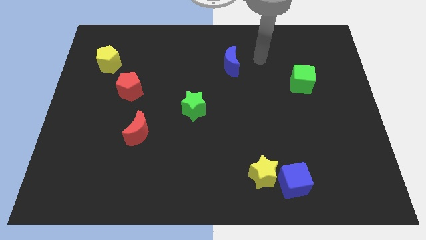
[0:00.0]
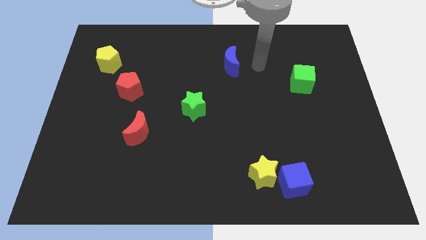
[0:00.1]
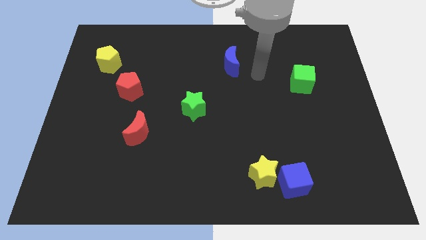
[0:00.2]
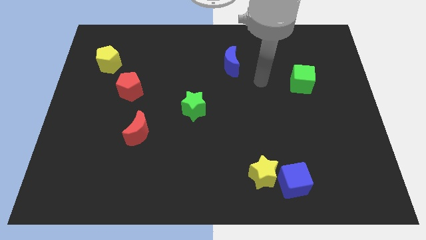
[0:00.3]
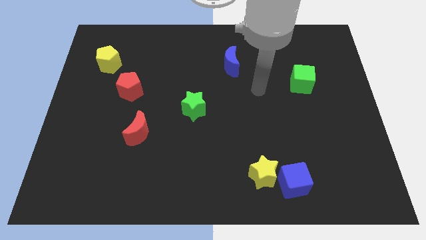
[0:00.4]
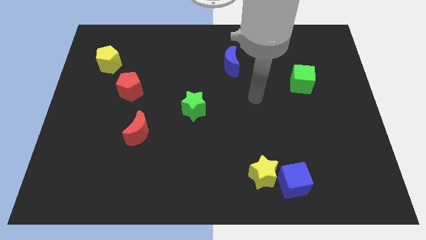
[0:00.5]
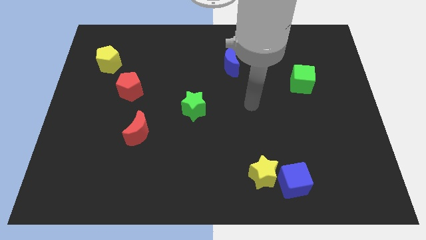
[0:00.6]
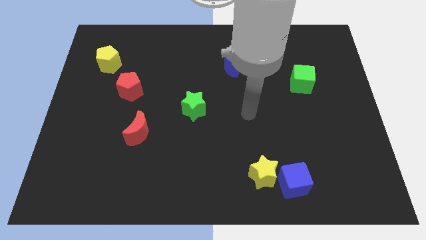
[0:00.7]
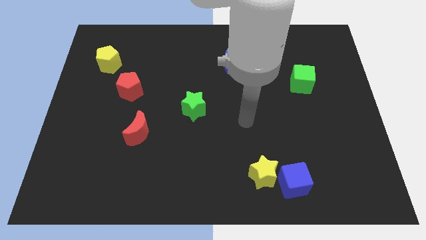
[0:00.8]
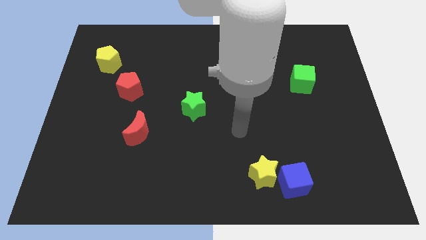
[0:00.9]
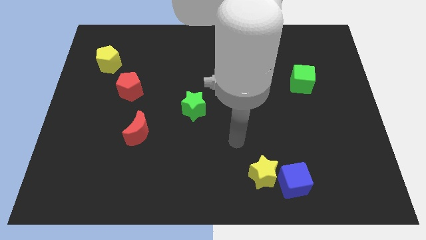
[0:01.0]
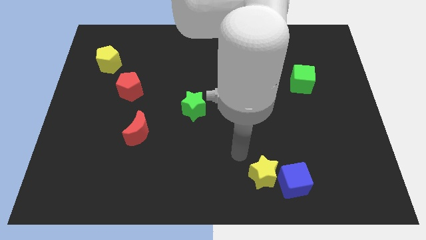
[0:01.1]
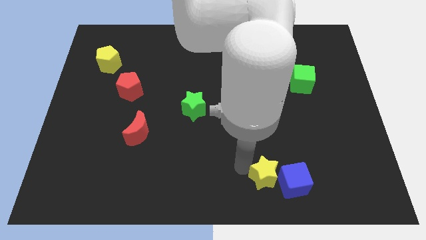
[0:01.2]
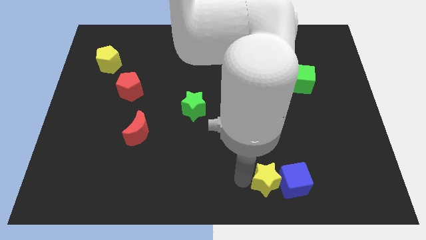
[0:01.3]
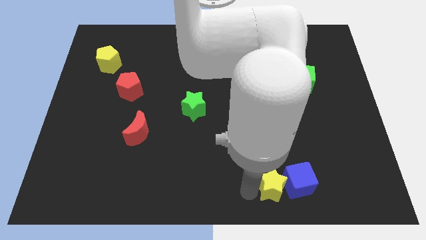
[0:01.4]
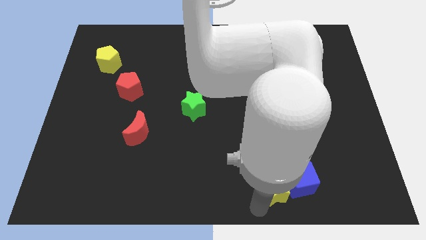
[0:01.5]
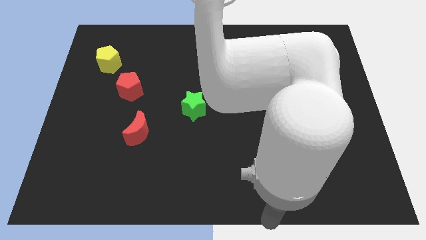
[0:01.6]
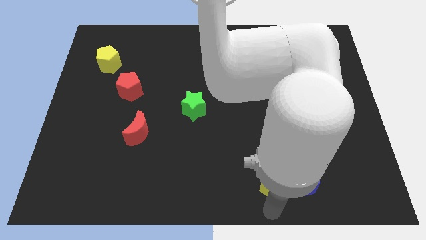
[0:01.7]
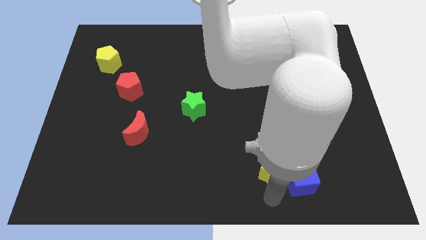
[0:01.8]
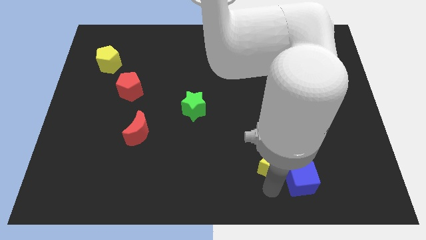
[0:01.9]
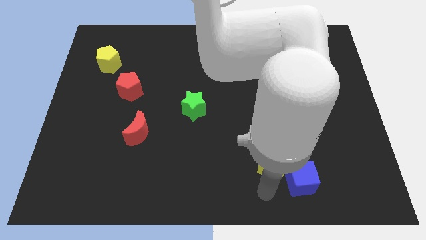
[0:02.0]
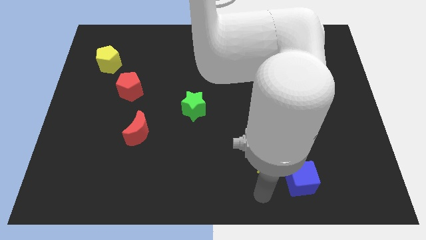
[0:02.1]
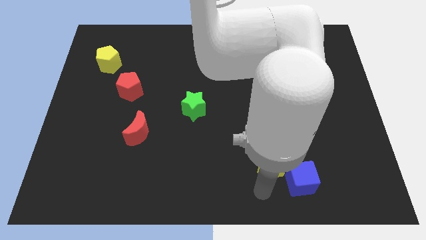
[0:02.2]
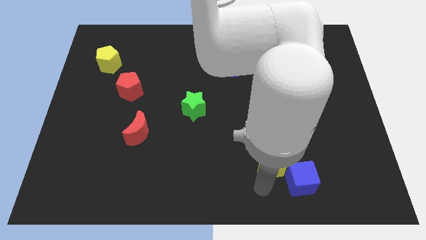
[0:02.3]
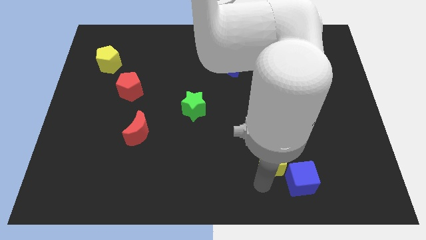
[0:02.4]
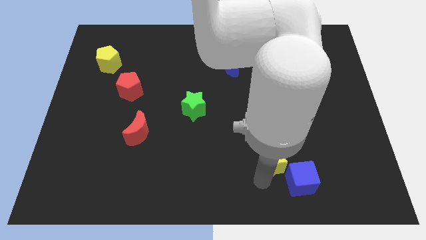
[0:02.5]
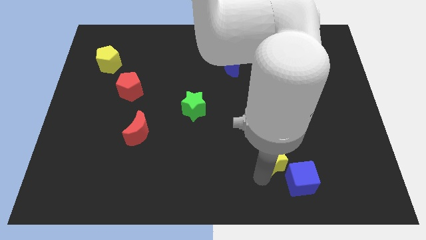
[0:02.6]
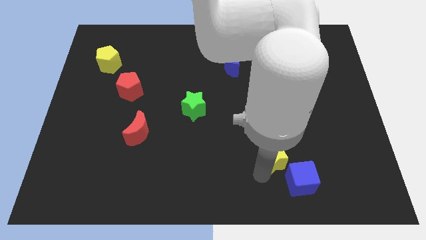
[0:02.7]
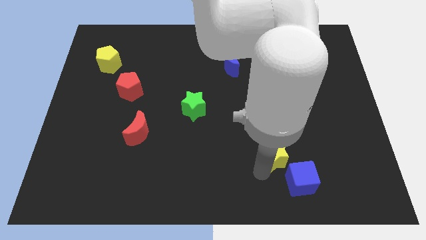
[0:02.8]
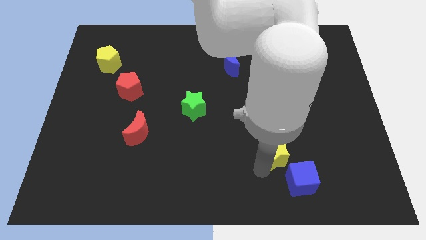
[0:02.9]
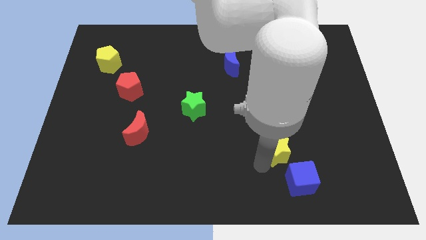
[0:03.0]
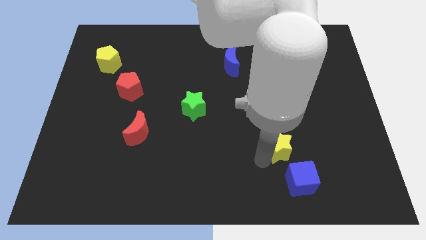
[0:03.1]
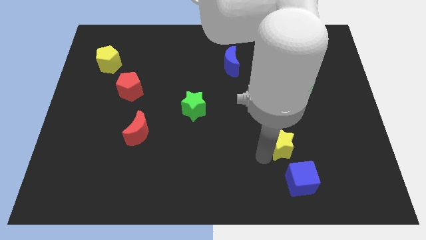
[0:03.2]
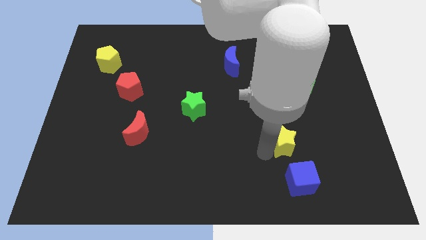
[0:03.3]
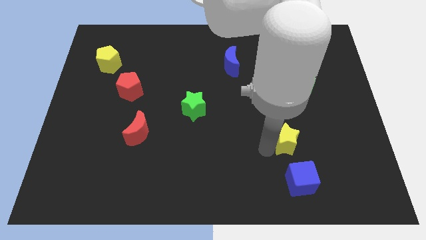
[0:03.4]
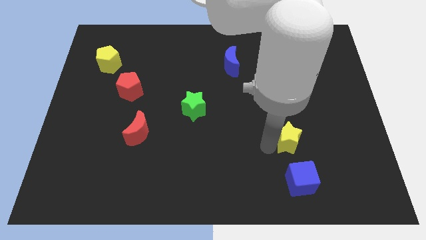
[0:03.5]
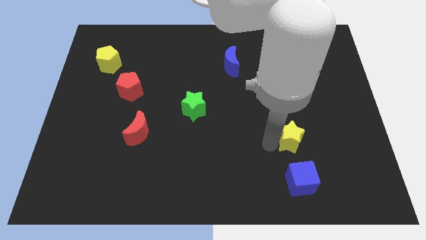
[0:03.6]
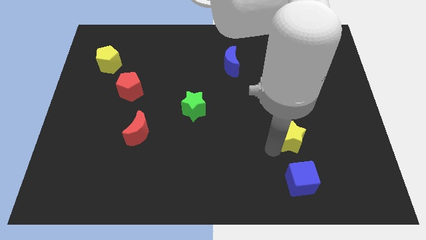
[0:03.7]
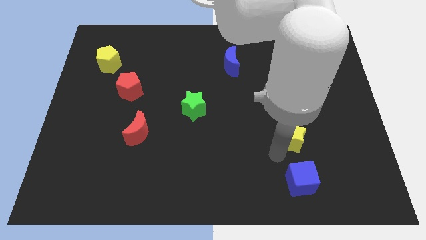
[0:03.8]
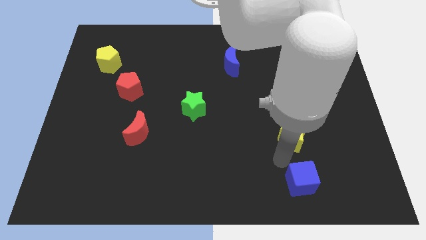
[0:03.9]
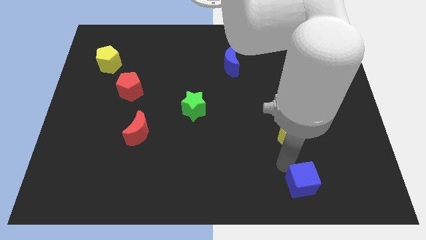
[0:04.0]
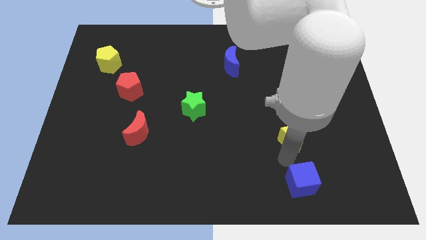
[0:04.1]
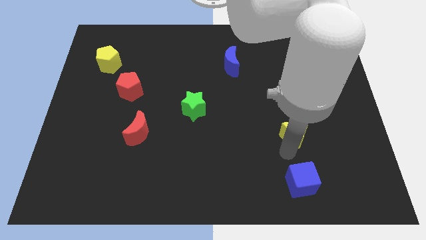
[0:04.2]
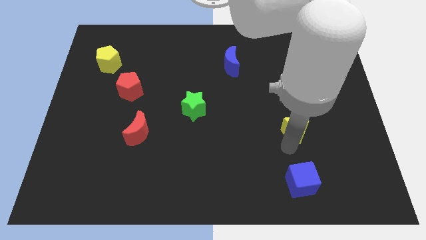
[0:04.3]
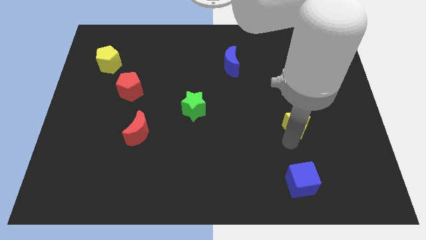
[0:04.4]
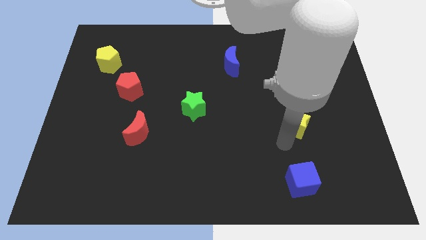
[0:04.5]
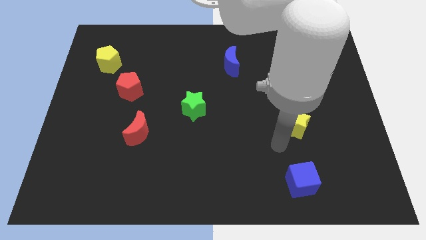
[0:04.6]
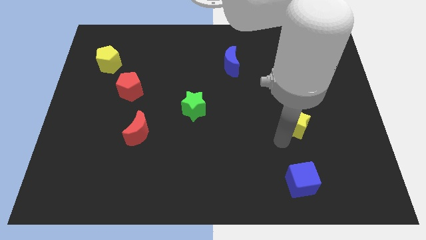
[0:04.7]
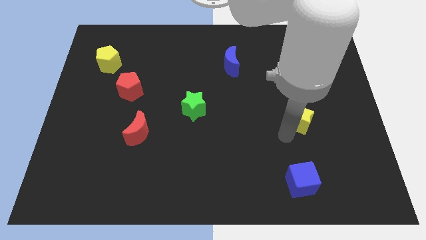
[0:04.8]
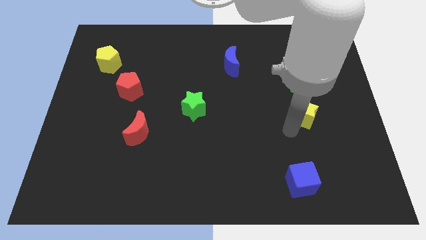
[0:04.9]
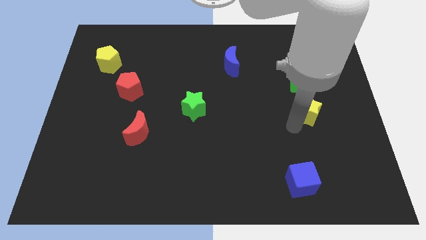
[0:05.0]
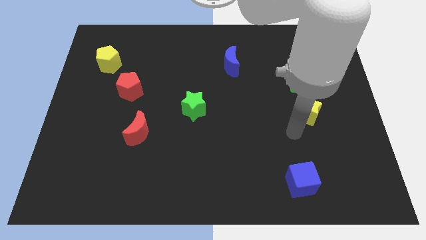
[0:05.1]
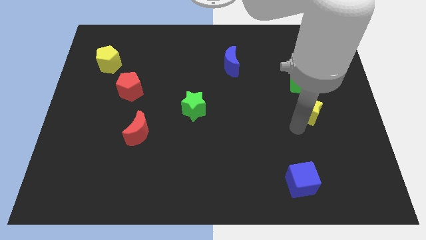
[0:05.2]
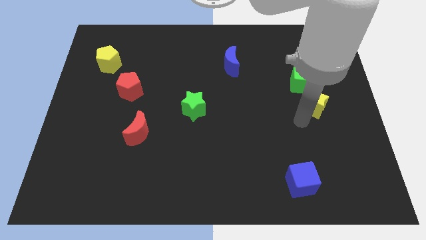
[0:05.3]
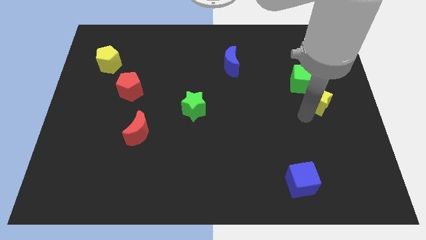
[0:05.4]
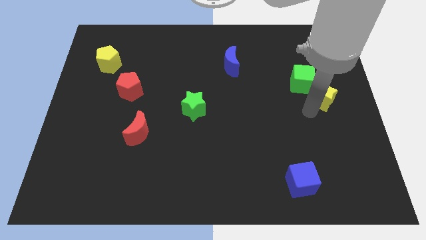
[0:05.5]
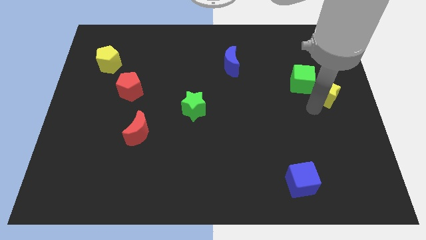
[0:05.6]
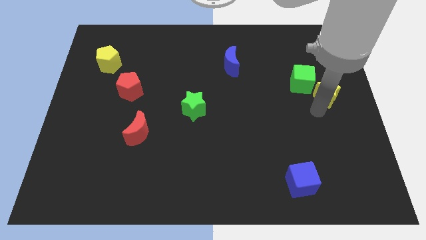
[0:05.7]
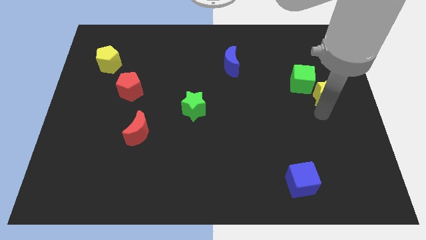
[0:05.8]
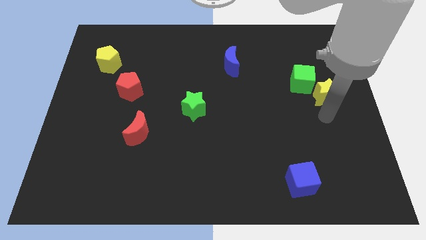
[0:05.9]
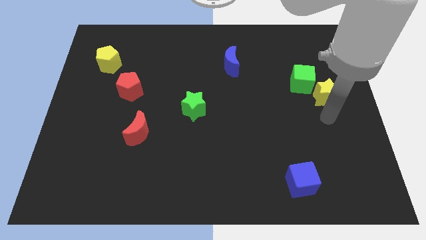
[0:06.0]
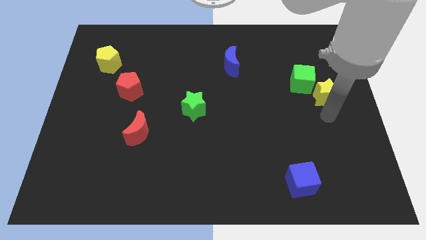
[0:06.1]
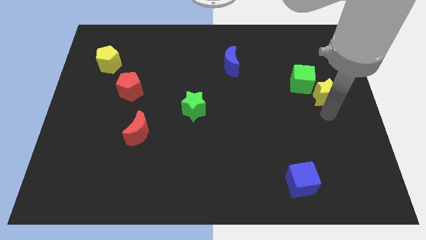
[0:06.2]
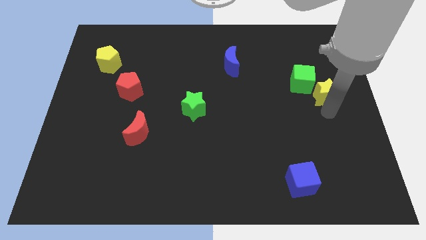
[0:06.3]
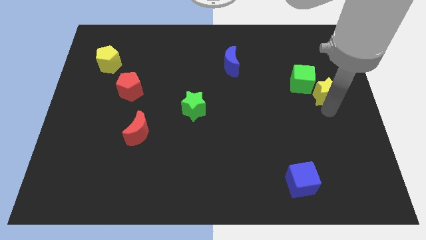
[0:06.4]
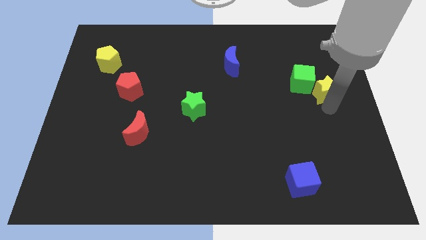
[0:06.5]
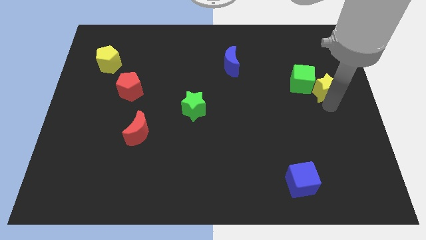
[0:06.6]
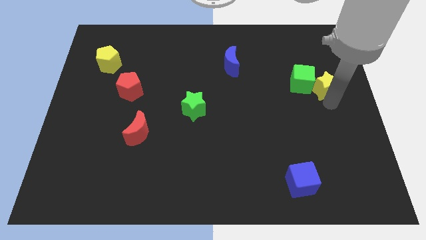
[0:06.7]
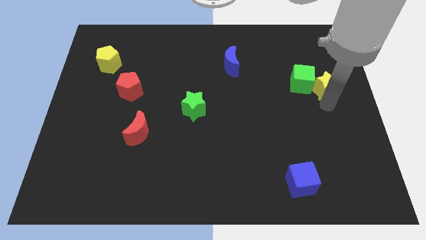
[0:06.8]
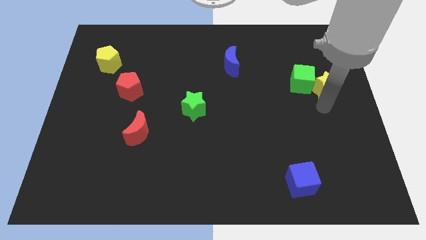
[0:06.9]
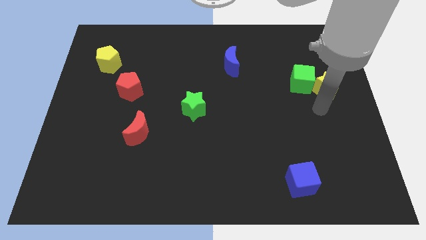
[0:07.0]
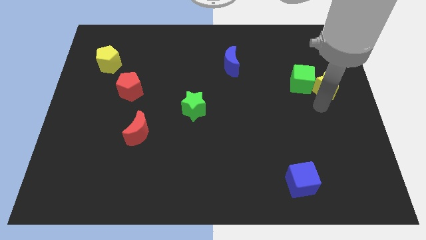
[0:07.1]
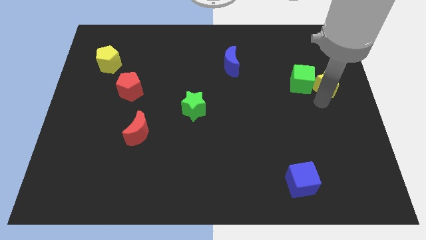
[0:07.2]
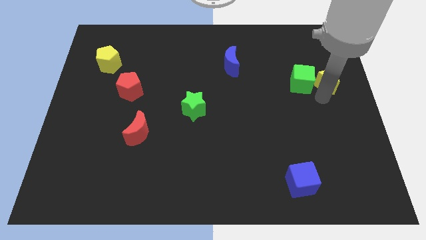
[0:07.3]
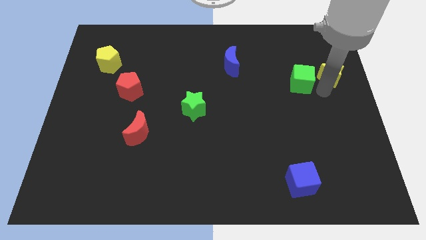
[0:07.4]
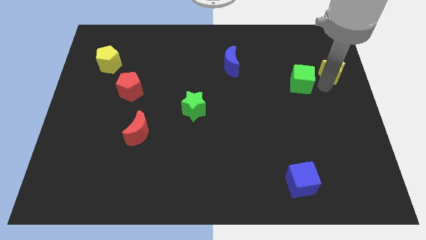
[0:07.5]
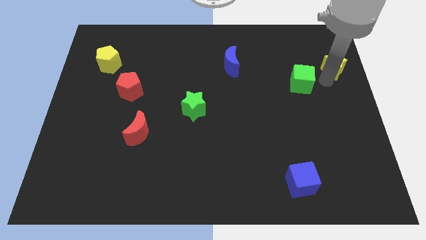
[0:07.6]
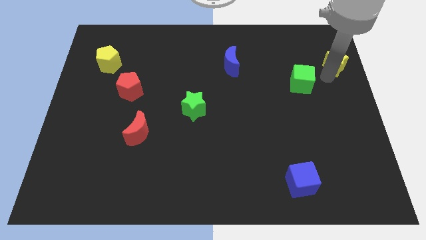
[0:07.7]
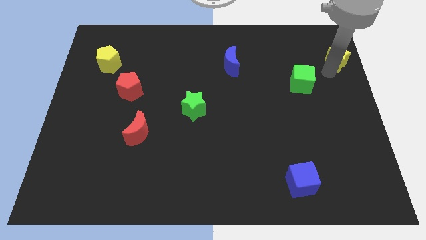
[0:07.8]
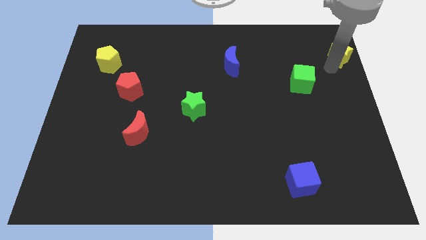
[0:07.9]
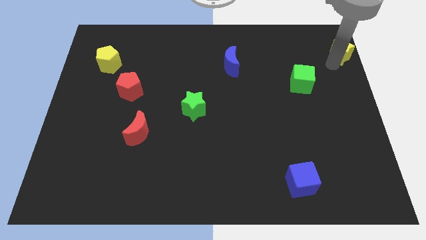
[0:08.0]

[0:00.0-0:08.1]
slide the yellow star to the top right
